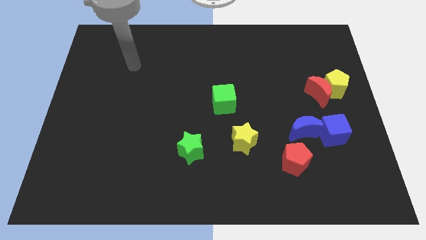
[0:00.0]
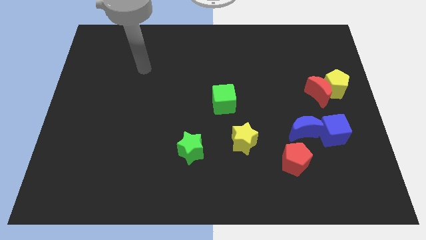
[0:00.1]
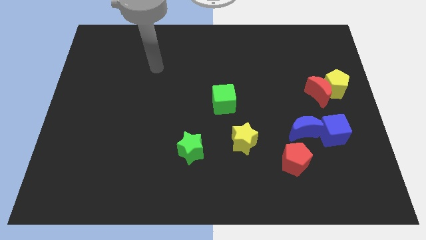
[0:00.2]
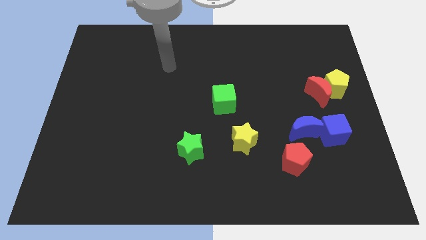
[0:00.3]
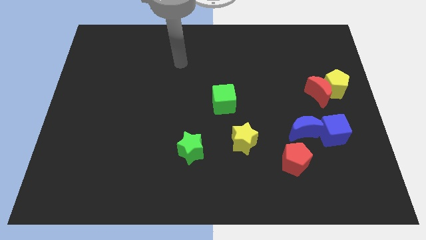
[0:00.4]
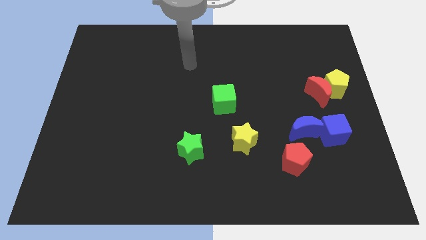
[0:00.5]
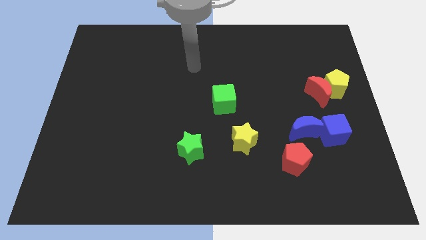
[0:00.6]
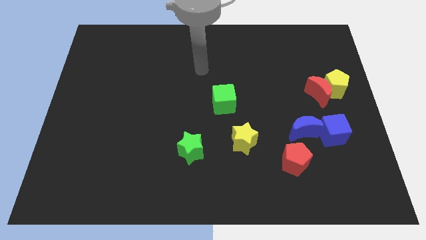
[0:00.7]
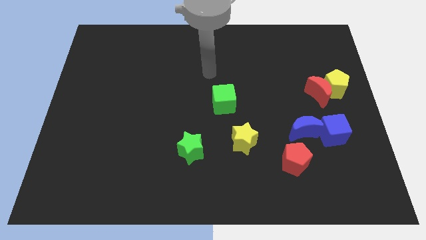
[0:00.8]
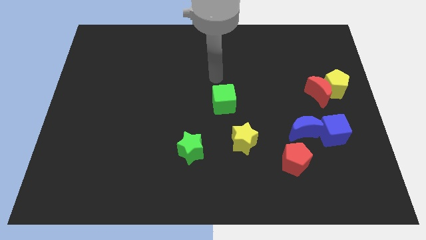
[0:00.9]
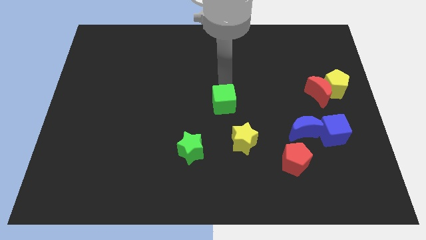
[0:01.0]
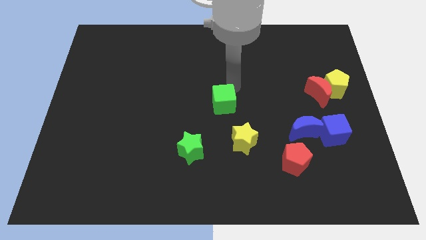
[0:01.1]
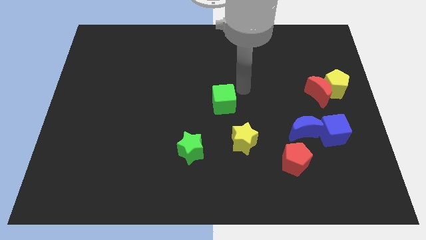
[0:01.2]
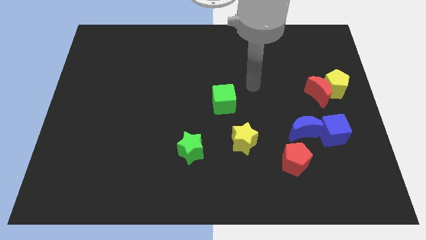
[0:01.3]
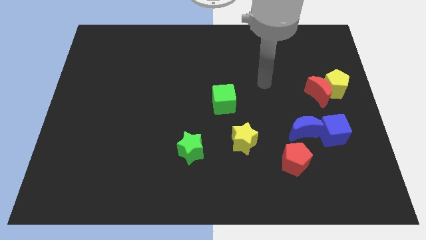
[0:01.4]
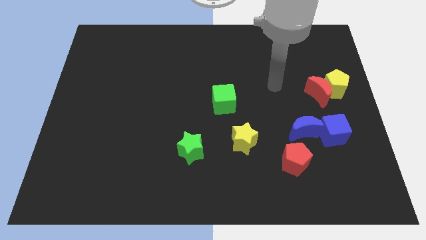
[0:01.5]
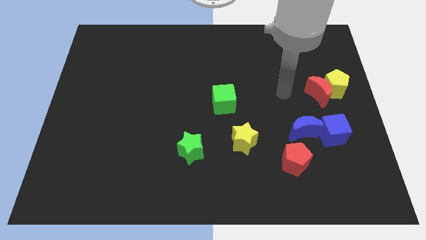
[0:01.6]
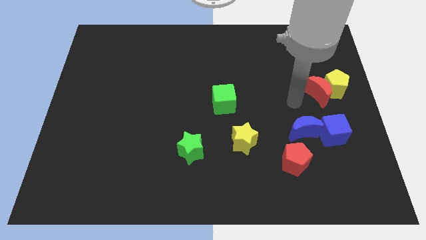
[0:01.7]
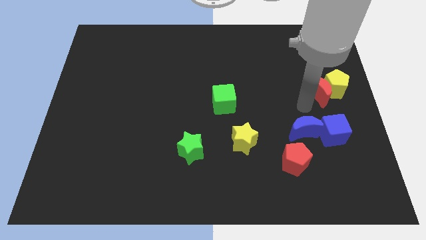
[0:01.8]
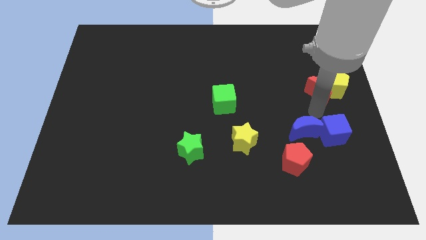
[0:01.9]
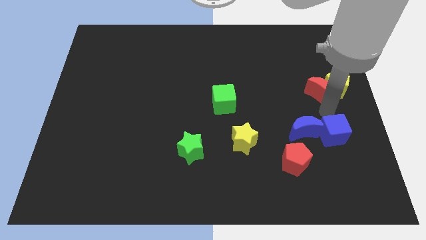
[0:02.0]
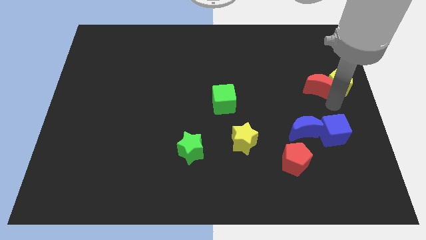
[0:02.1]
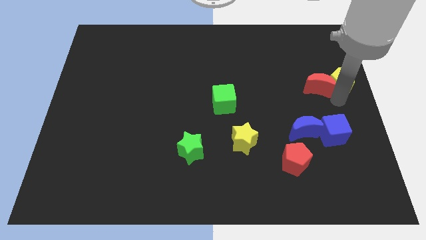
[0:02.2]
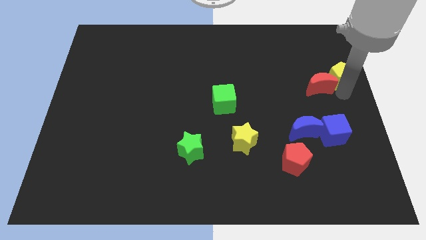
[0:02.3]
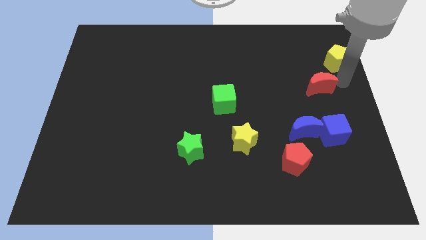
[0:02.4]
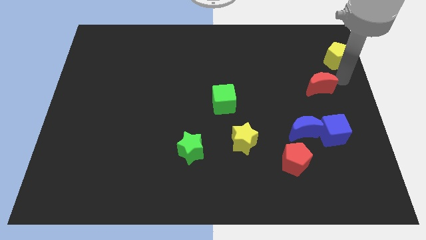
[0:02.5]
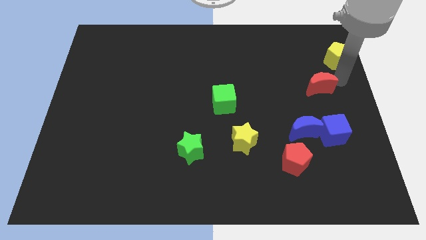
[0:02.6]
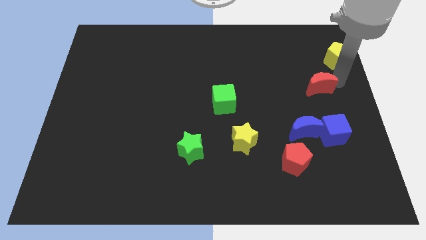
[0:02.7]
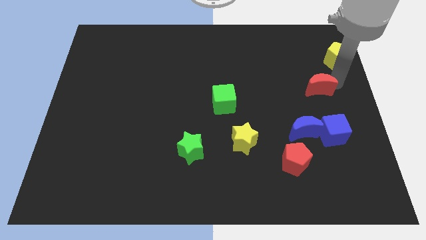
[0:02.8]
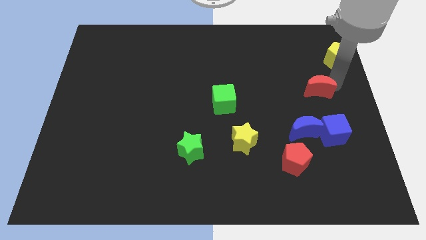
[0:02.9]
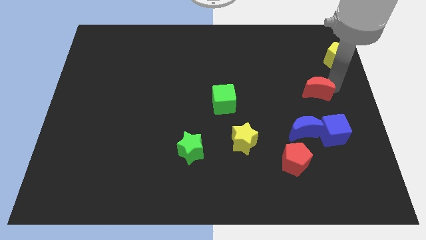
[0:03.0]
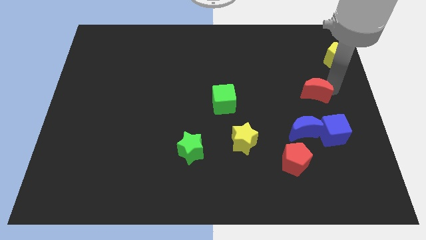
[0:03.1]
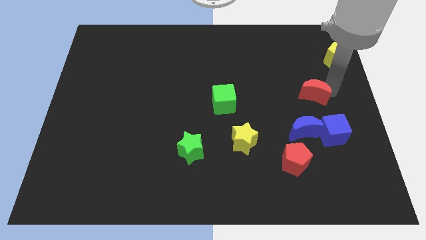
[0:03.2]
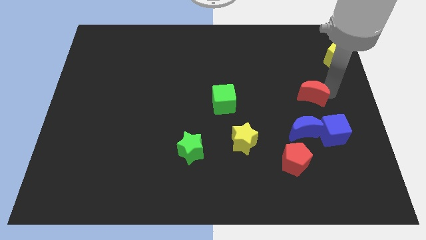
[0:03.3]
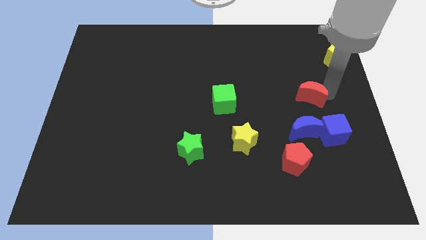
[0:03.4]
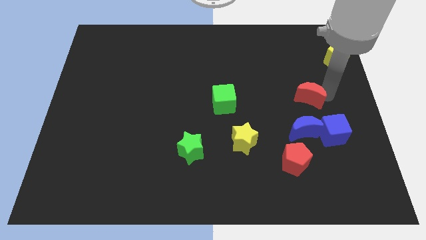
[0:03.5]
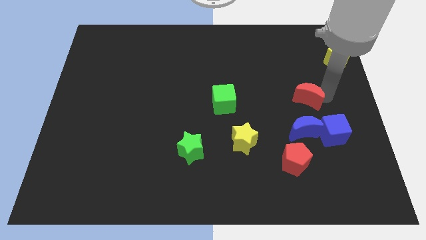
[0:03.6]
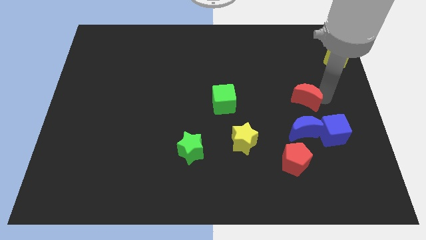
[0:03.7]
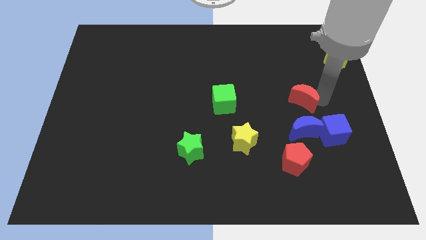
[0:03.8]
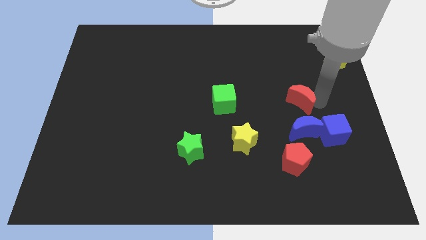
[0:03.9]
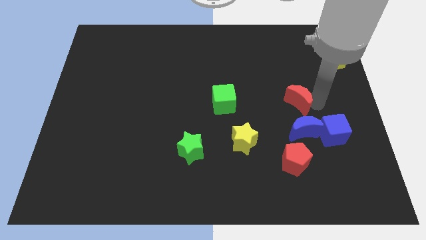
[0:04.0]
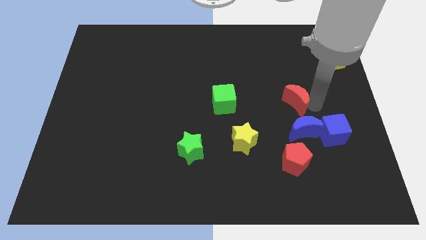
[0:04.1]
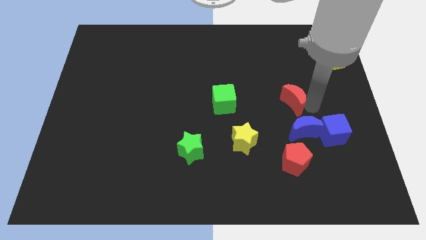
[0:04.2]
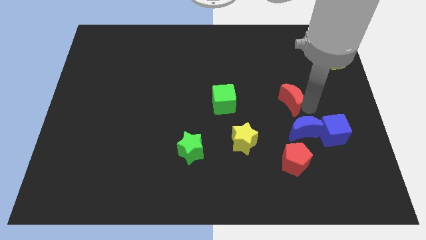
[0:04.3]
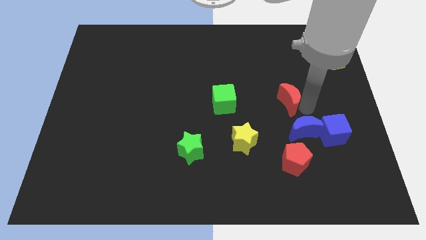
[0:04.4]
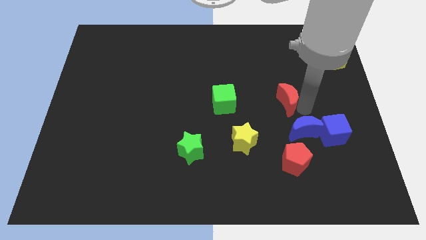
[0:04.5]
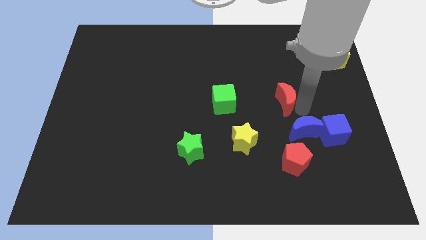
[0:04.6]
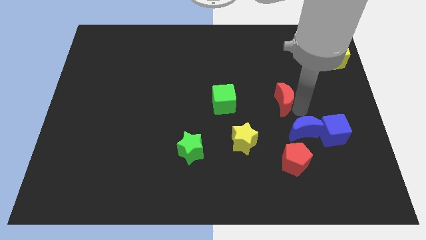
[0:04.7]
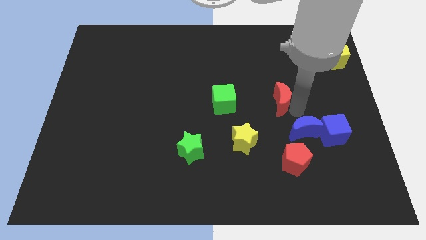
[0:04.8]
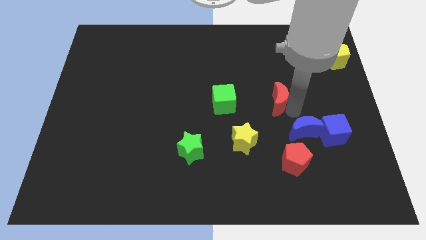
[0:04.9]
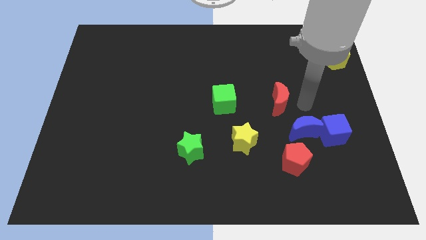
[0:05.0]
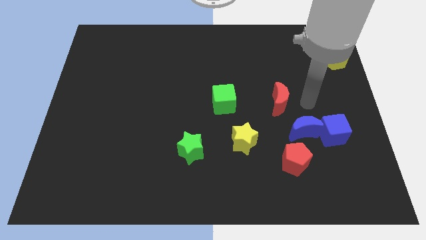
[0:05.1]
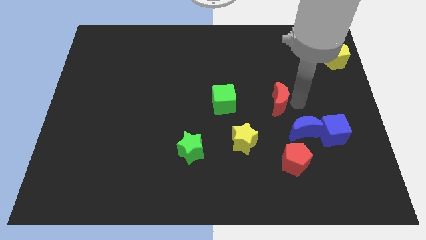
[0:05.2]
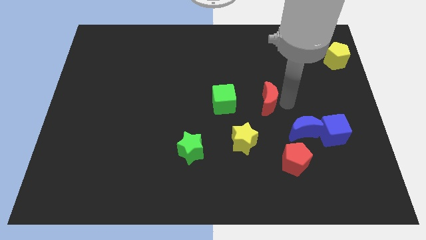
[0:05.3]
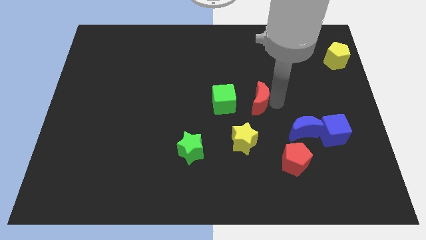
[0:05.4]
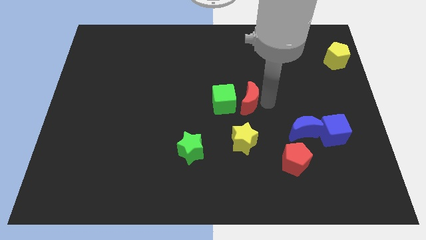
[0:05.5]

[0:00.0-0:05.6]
slide the red moon to the green cube

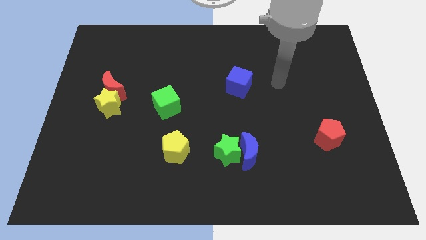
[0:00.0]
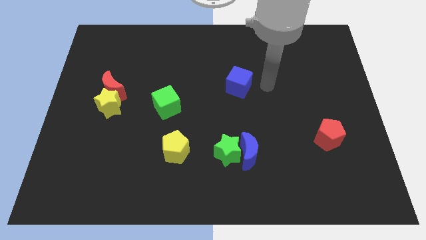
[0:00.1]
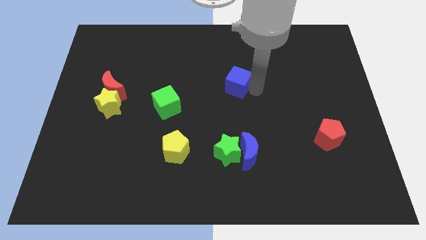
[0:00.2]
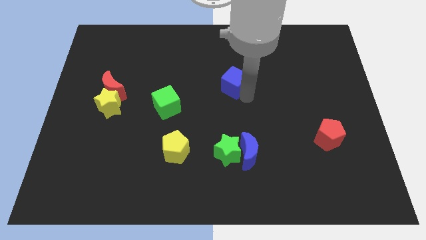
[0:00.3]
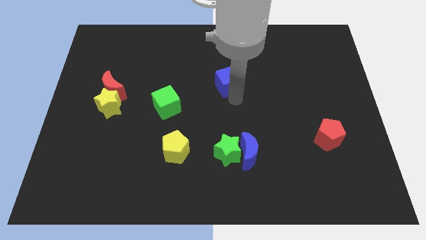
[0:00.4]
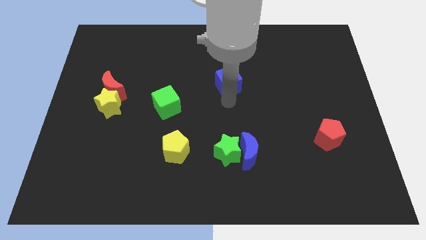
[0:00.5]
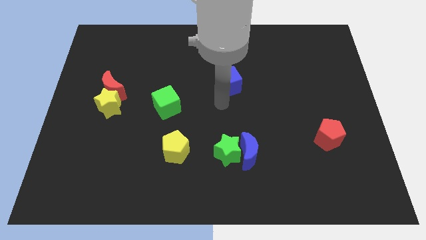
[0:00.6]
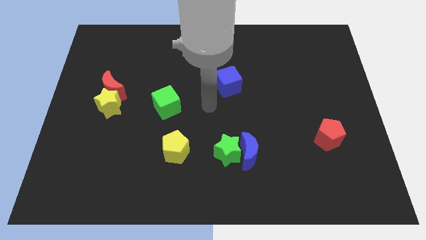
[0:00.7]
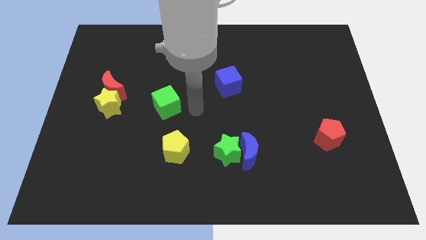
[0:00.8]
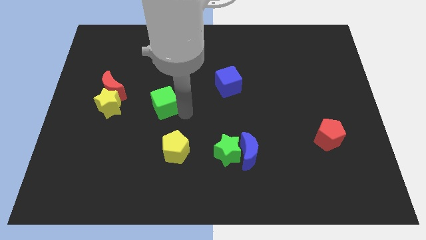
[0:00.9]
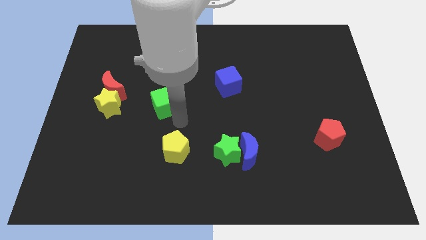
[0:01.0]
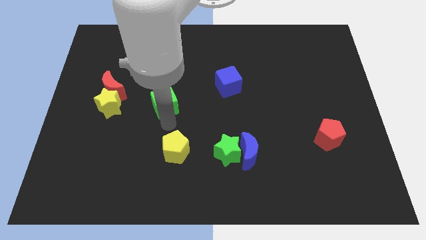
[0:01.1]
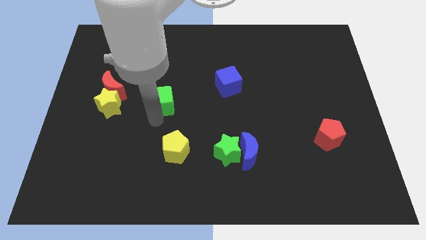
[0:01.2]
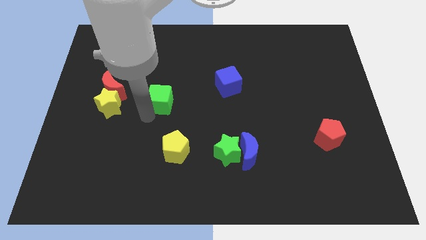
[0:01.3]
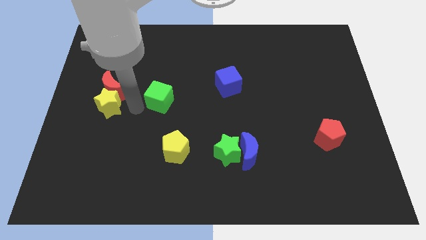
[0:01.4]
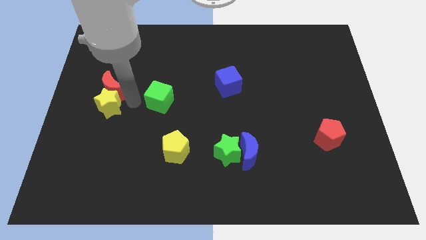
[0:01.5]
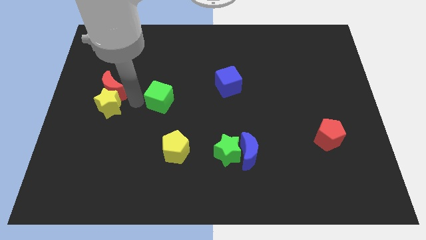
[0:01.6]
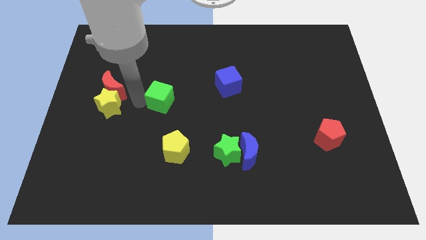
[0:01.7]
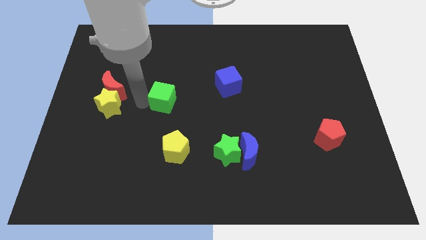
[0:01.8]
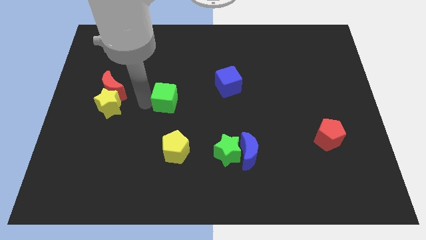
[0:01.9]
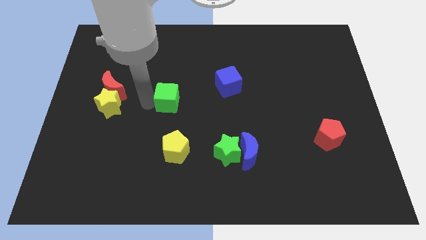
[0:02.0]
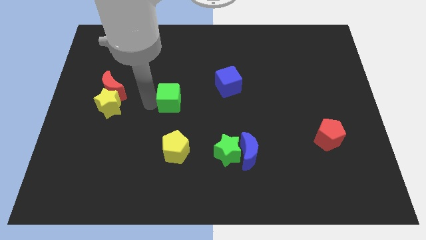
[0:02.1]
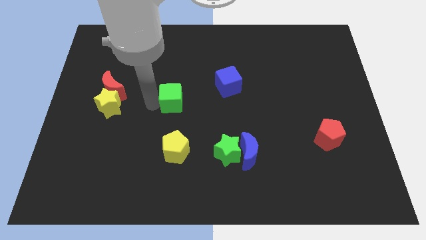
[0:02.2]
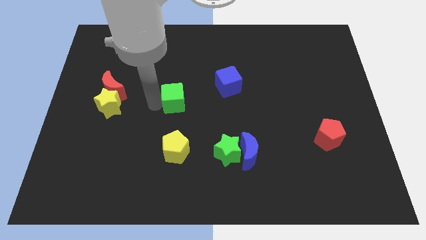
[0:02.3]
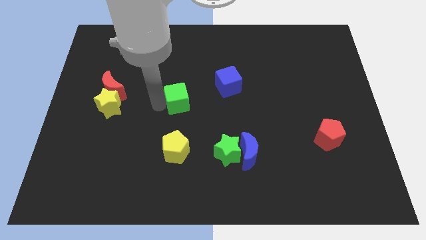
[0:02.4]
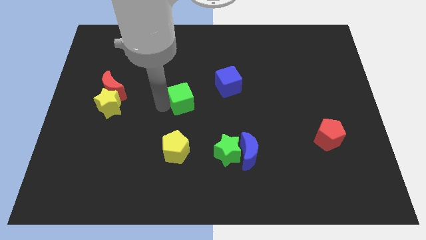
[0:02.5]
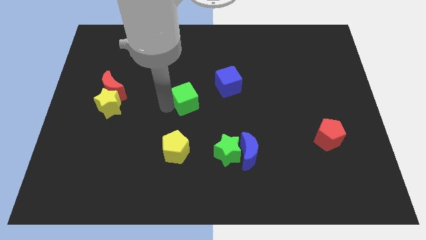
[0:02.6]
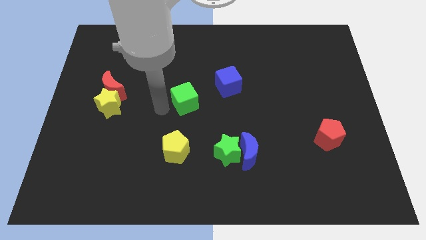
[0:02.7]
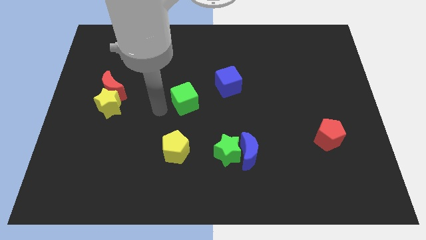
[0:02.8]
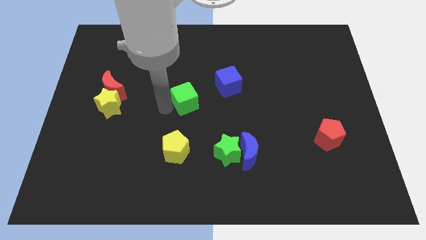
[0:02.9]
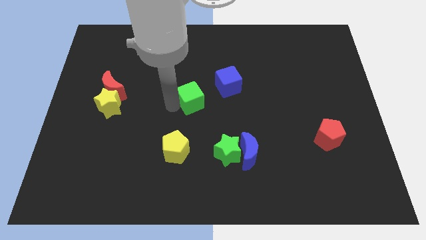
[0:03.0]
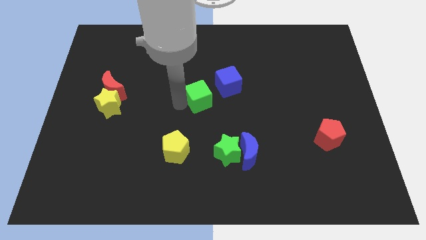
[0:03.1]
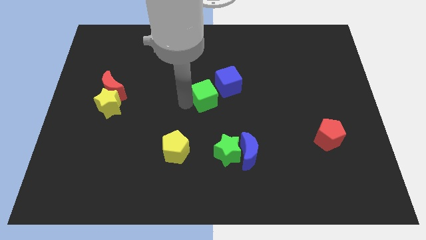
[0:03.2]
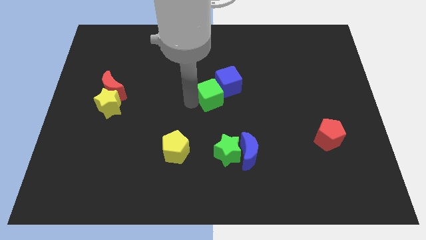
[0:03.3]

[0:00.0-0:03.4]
put the green cube towards the blue cube
